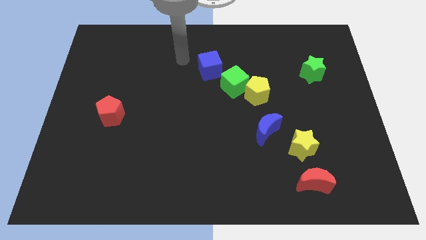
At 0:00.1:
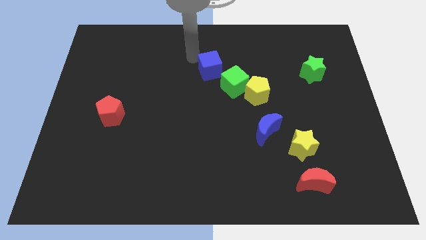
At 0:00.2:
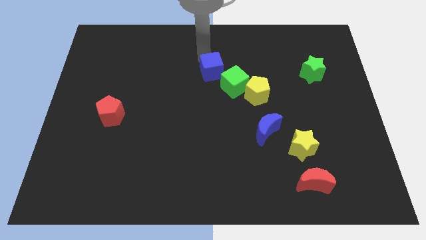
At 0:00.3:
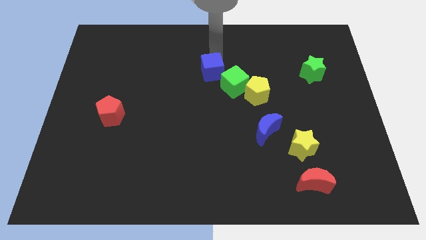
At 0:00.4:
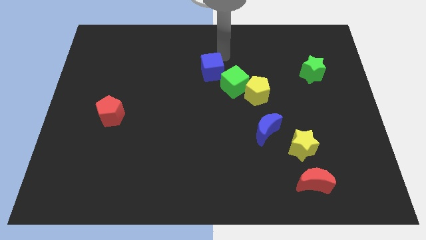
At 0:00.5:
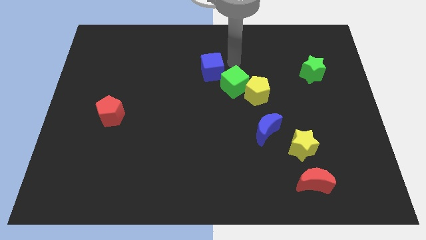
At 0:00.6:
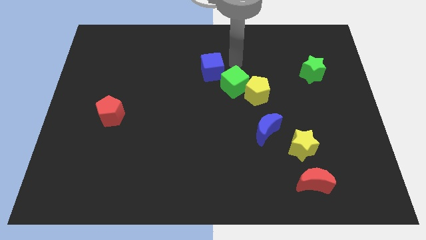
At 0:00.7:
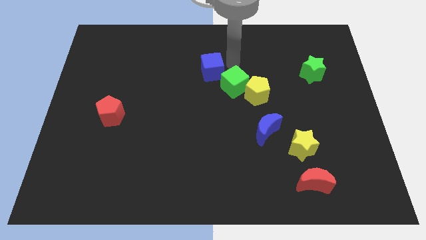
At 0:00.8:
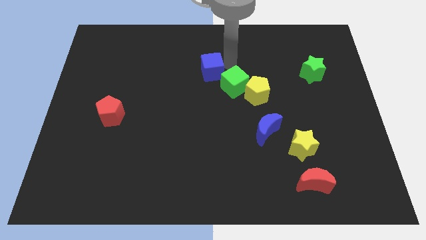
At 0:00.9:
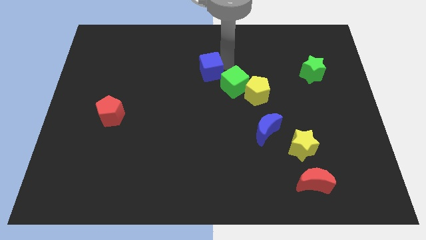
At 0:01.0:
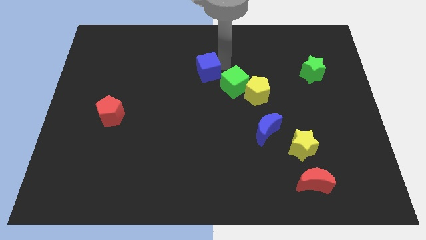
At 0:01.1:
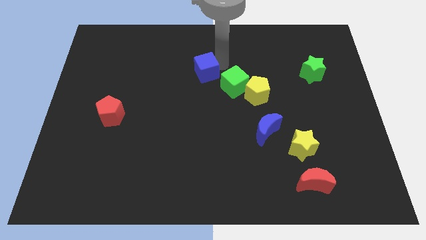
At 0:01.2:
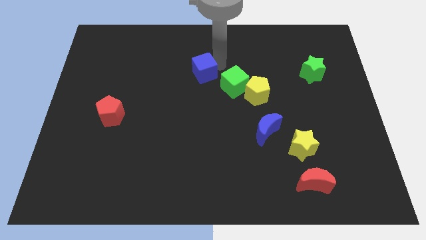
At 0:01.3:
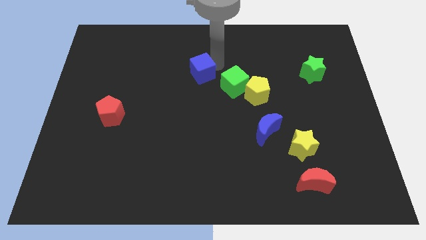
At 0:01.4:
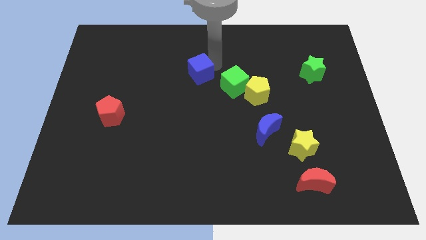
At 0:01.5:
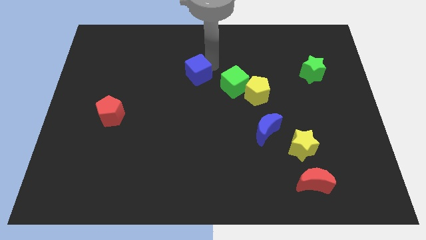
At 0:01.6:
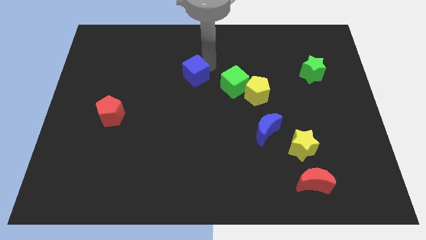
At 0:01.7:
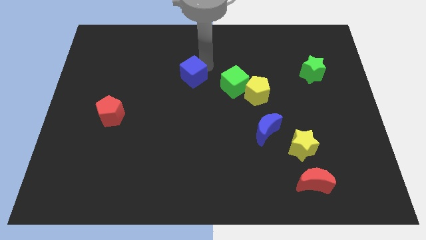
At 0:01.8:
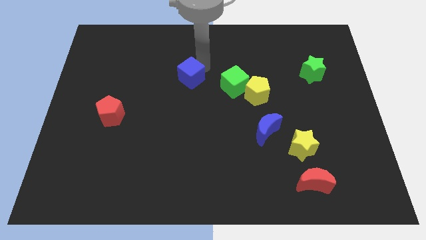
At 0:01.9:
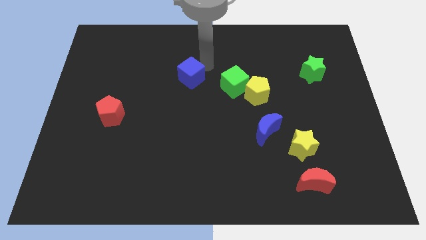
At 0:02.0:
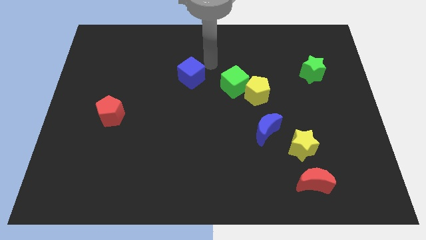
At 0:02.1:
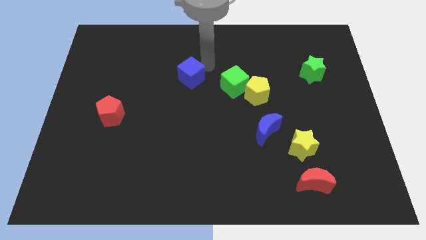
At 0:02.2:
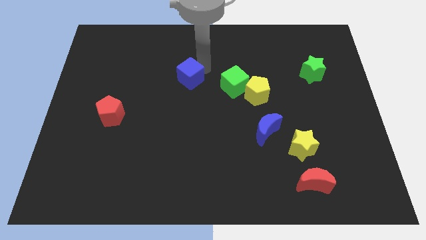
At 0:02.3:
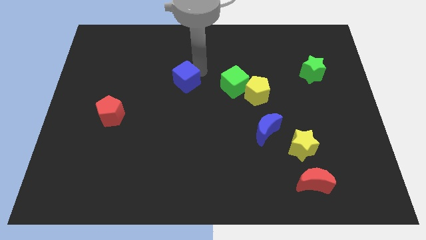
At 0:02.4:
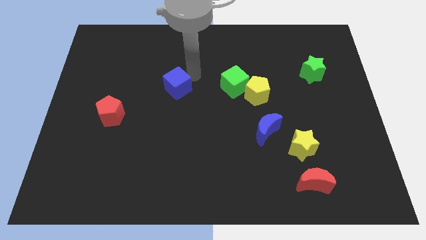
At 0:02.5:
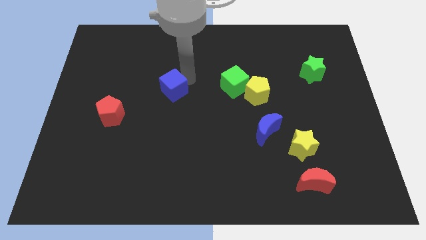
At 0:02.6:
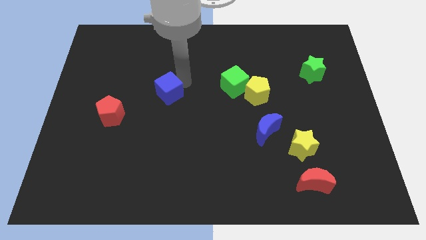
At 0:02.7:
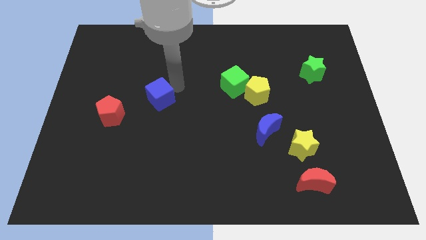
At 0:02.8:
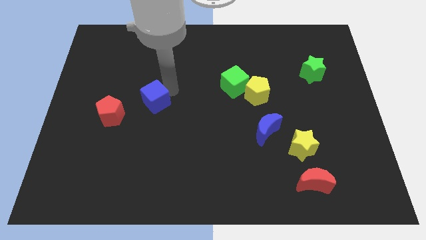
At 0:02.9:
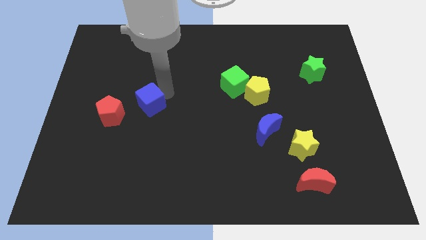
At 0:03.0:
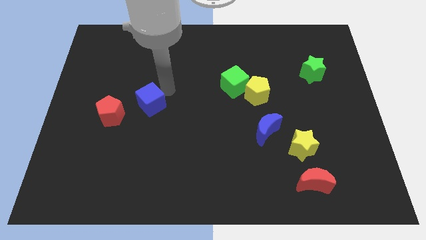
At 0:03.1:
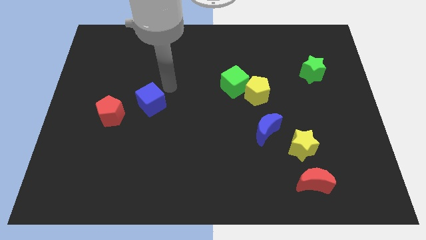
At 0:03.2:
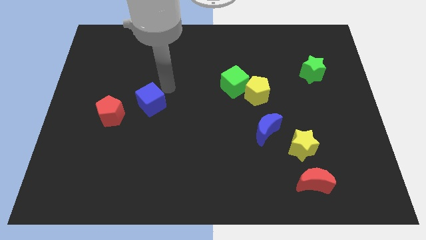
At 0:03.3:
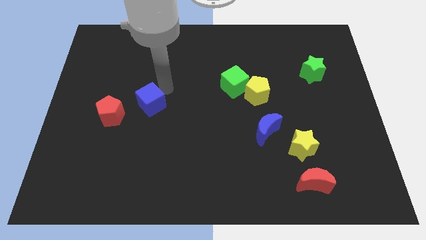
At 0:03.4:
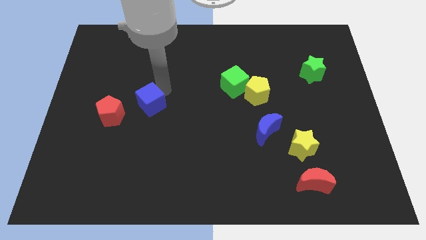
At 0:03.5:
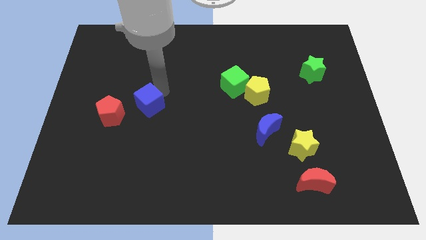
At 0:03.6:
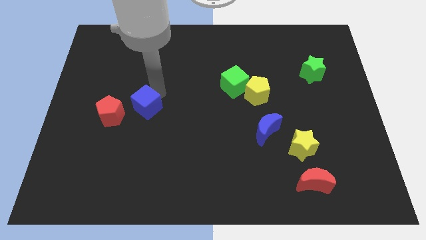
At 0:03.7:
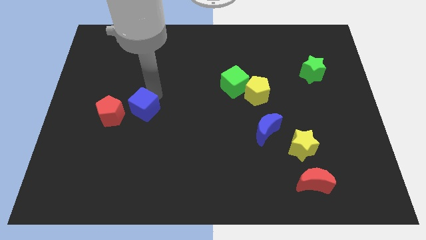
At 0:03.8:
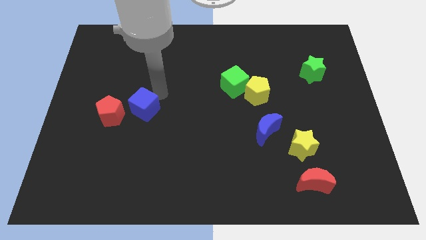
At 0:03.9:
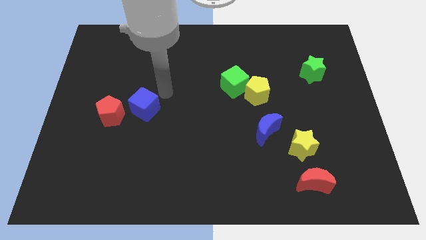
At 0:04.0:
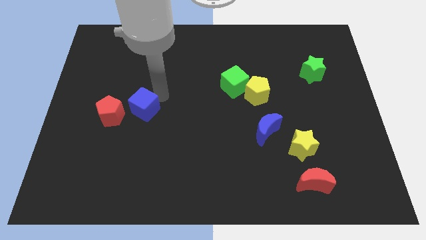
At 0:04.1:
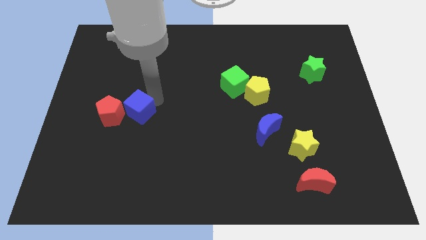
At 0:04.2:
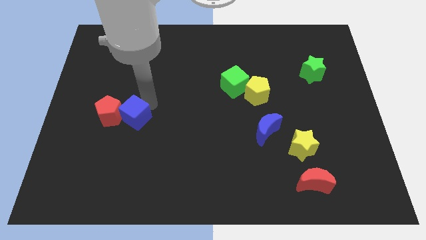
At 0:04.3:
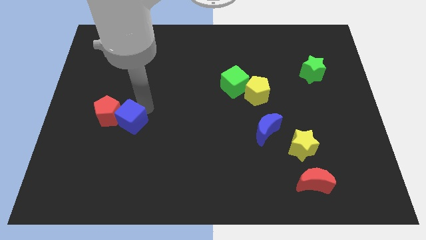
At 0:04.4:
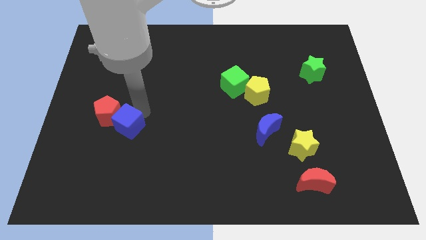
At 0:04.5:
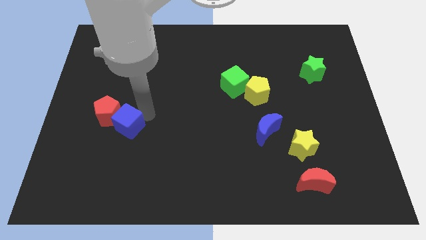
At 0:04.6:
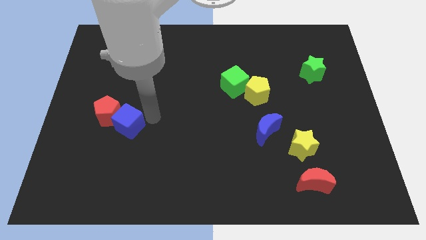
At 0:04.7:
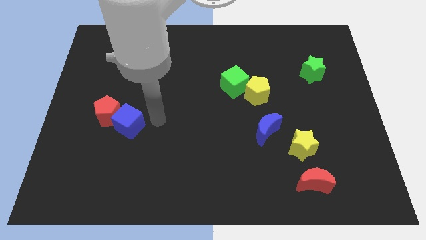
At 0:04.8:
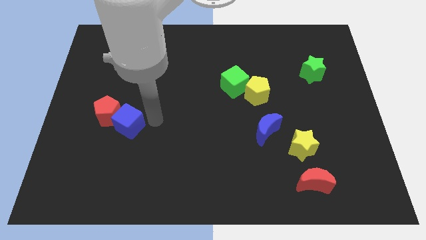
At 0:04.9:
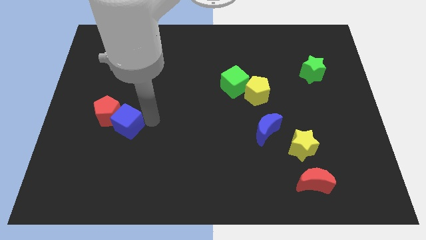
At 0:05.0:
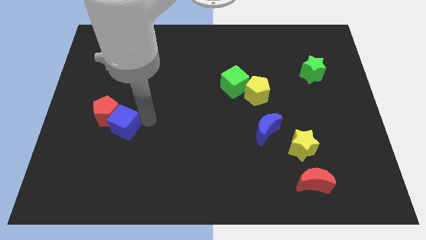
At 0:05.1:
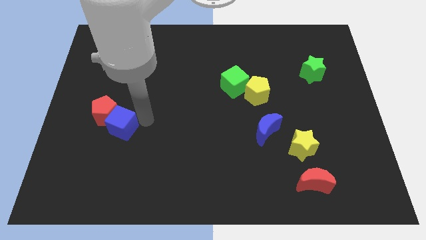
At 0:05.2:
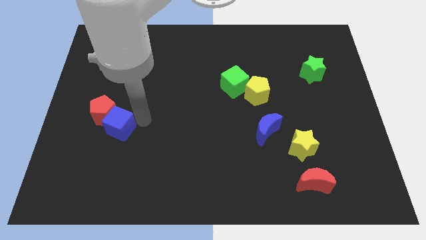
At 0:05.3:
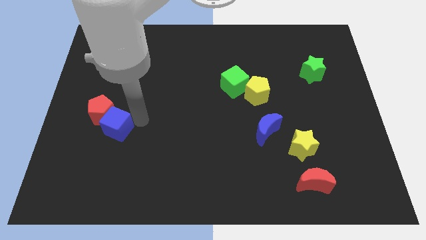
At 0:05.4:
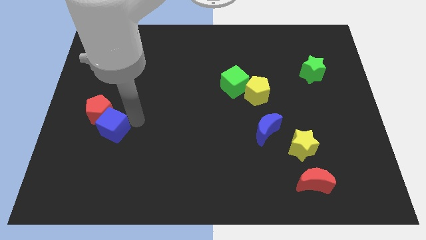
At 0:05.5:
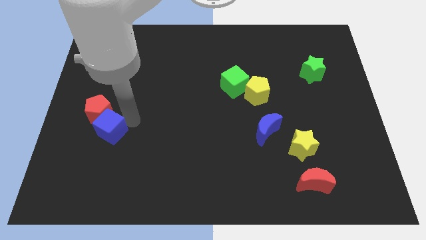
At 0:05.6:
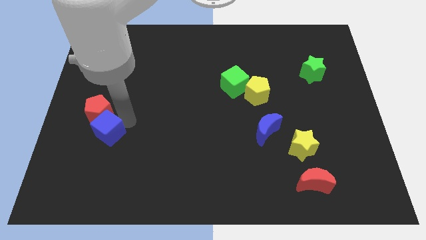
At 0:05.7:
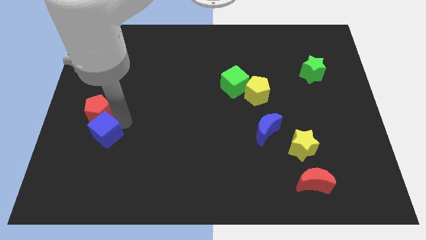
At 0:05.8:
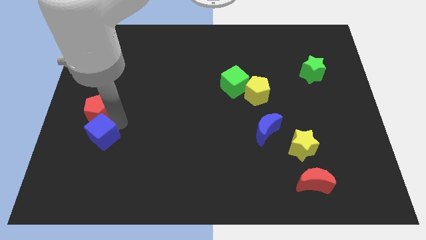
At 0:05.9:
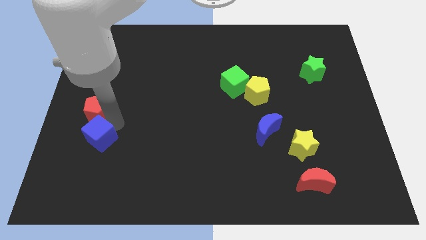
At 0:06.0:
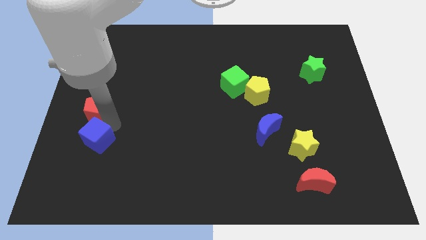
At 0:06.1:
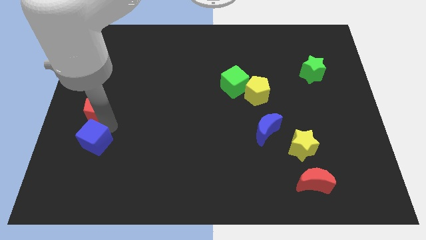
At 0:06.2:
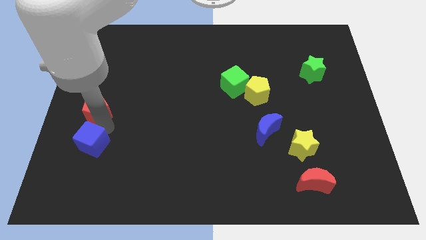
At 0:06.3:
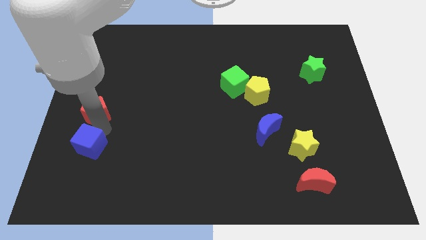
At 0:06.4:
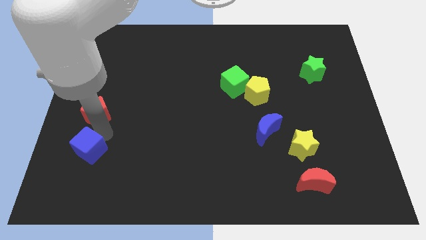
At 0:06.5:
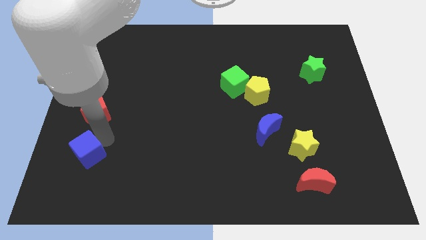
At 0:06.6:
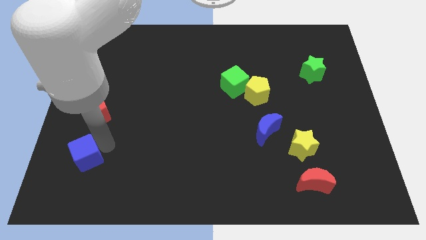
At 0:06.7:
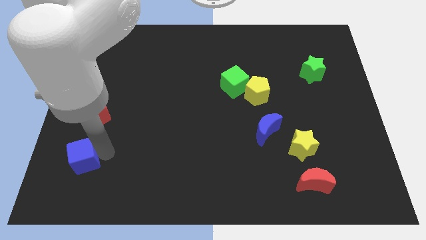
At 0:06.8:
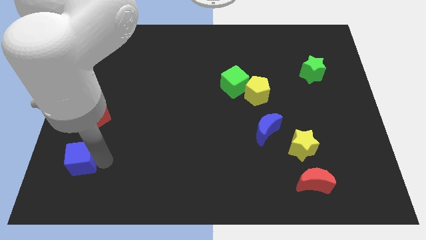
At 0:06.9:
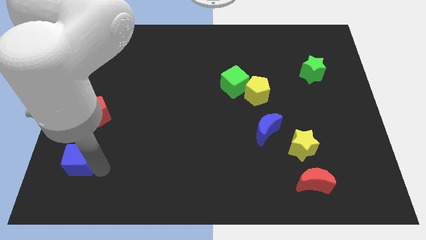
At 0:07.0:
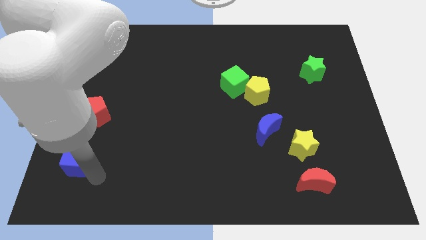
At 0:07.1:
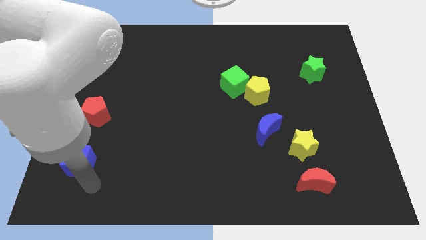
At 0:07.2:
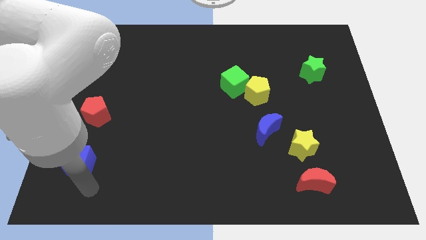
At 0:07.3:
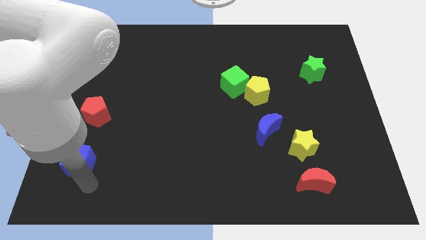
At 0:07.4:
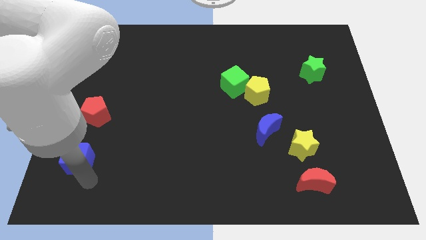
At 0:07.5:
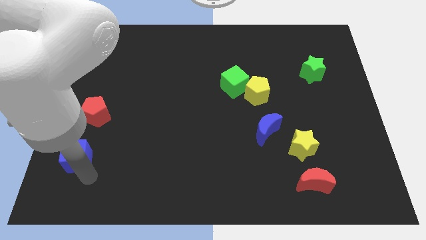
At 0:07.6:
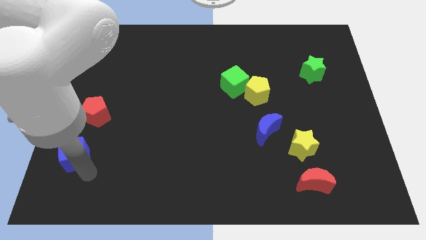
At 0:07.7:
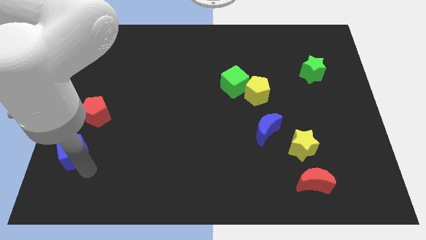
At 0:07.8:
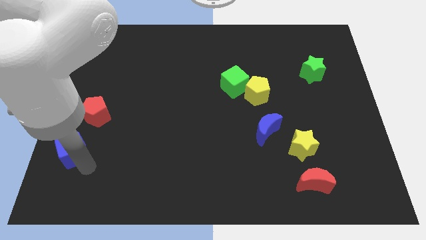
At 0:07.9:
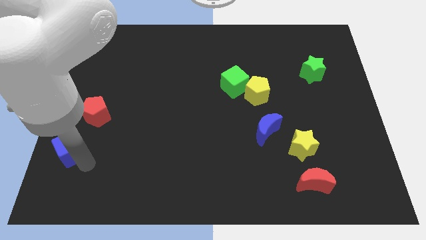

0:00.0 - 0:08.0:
move the blue cube to the bottom left of the red pentagon
